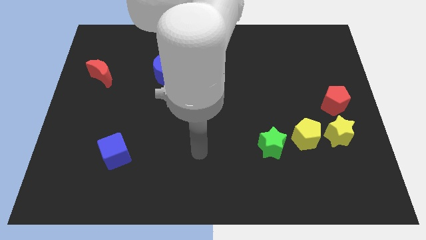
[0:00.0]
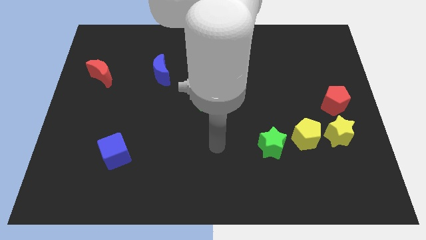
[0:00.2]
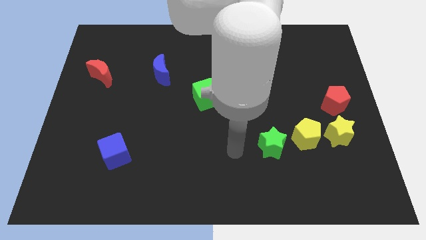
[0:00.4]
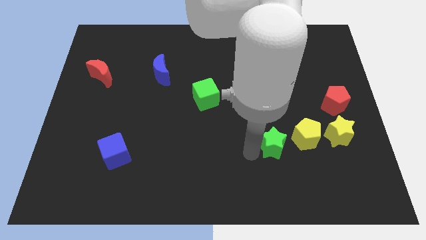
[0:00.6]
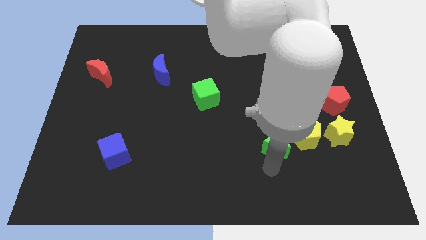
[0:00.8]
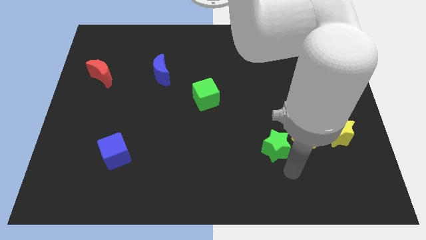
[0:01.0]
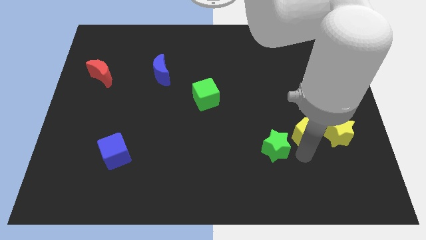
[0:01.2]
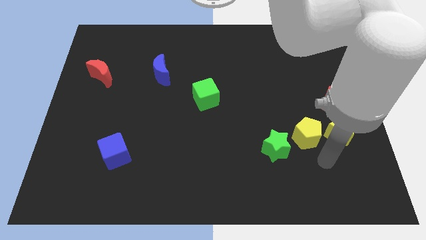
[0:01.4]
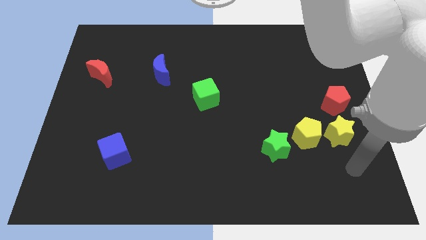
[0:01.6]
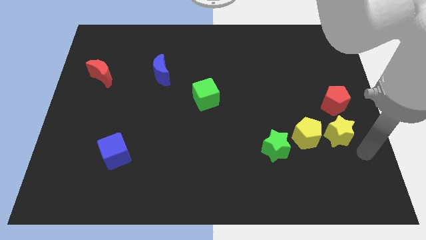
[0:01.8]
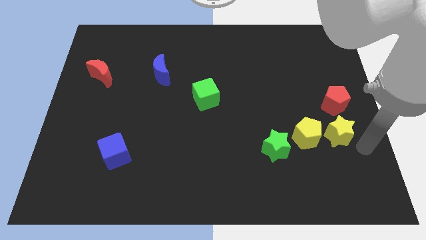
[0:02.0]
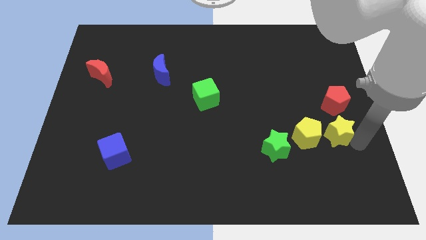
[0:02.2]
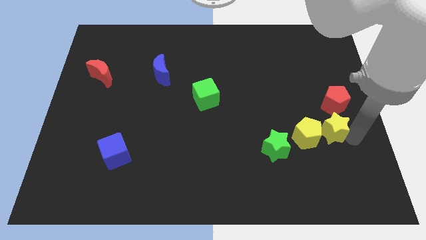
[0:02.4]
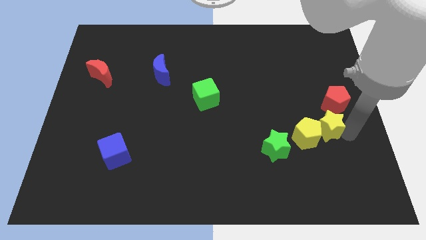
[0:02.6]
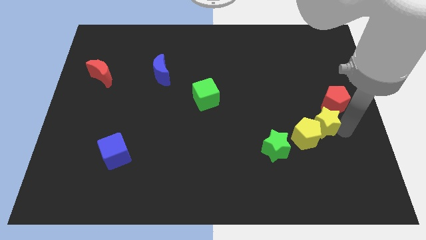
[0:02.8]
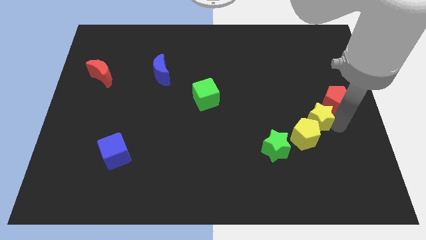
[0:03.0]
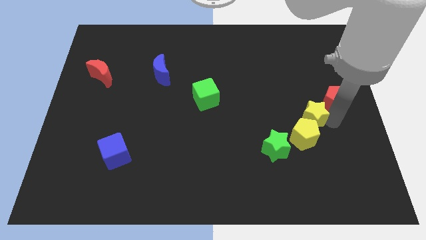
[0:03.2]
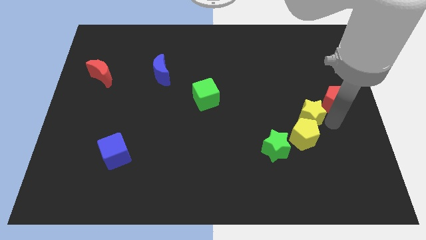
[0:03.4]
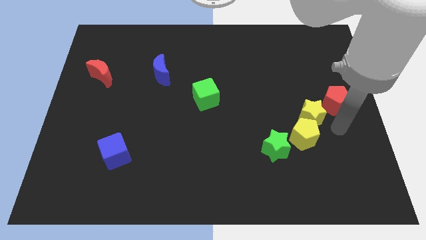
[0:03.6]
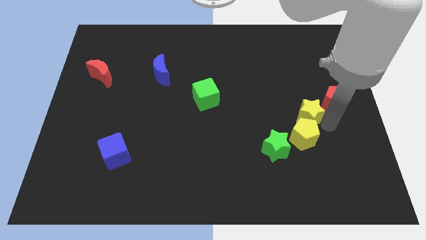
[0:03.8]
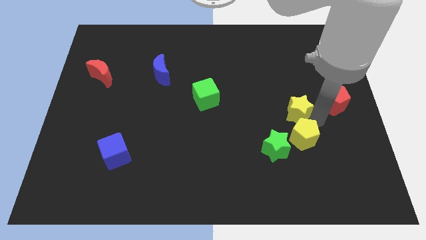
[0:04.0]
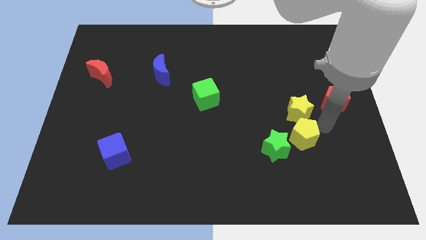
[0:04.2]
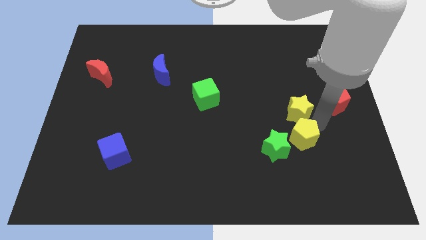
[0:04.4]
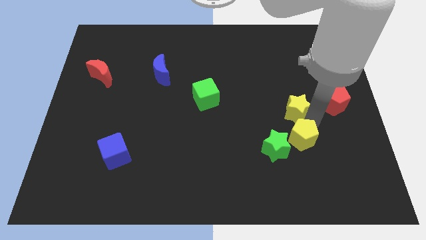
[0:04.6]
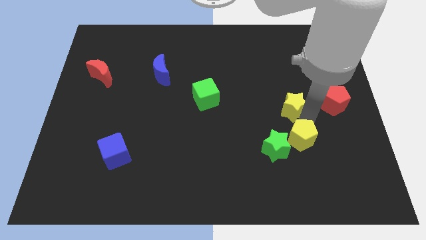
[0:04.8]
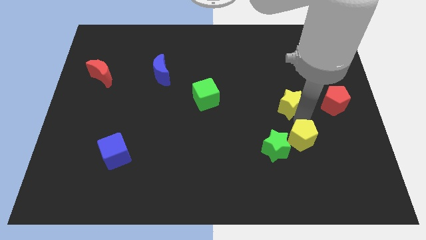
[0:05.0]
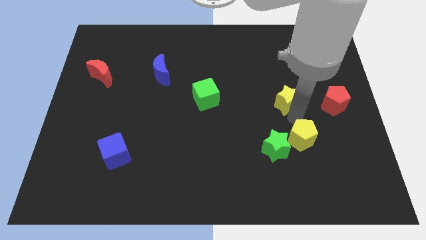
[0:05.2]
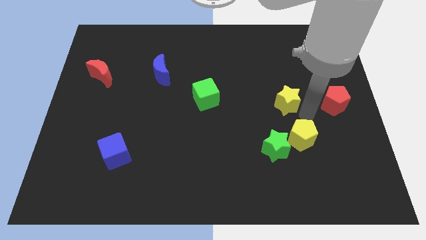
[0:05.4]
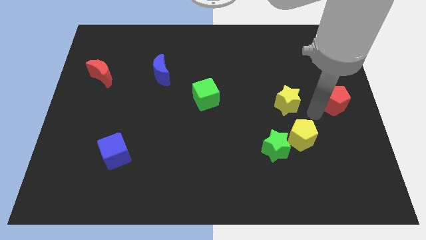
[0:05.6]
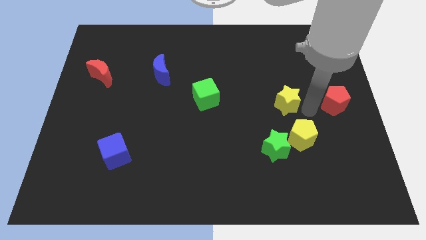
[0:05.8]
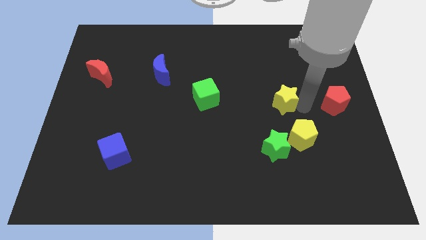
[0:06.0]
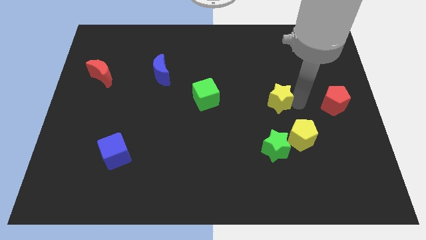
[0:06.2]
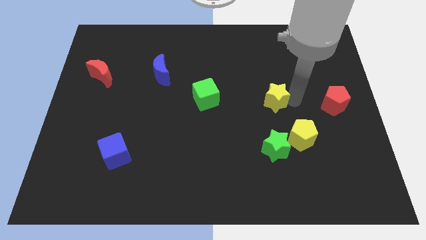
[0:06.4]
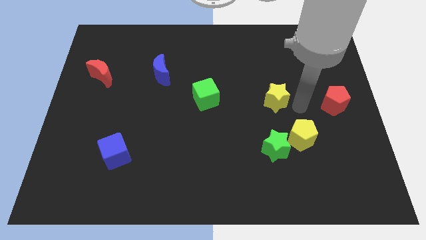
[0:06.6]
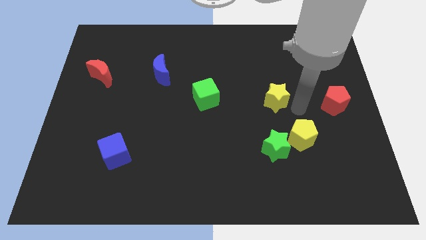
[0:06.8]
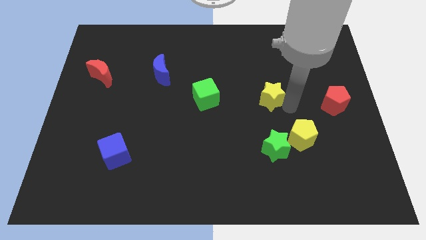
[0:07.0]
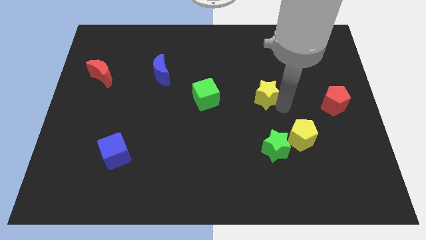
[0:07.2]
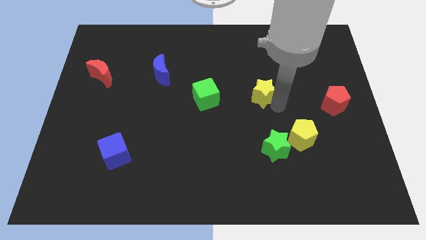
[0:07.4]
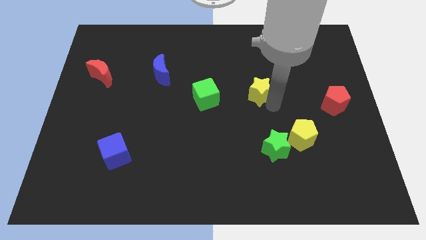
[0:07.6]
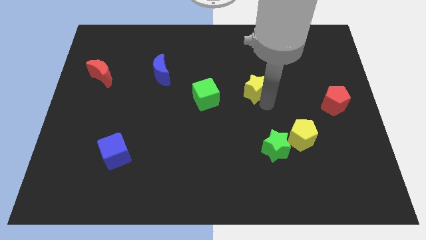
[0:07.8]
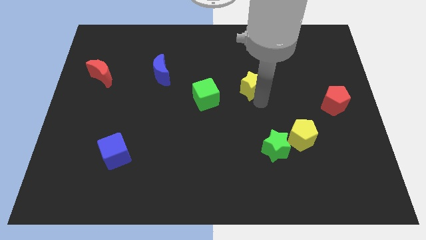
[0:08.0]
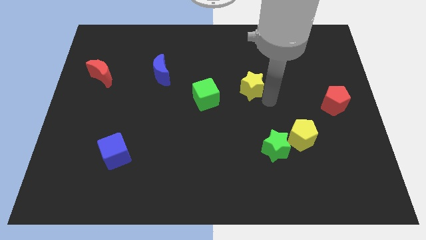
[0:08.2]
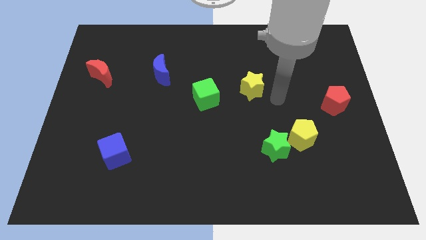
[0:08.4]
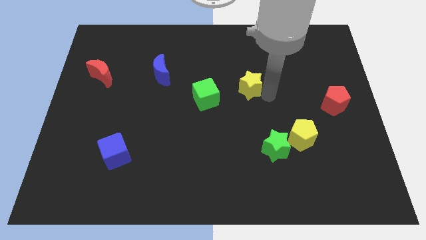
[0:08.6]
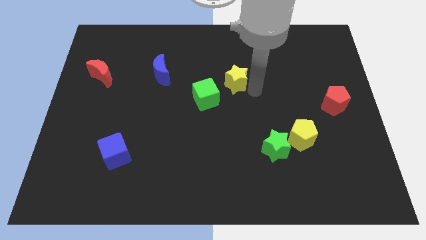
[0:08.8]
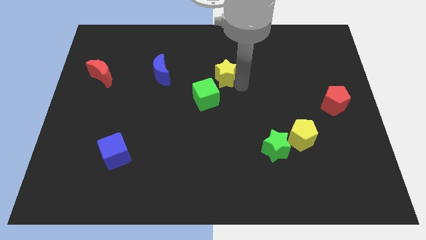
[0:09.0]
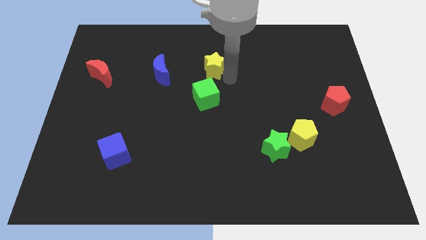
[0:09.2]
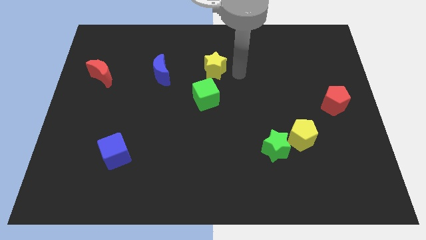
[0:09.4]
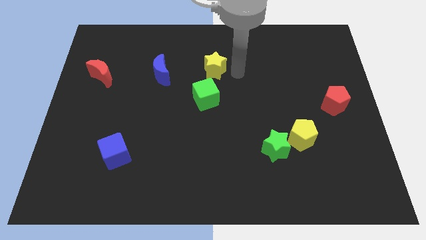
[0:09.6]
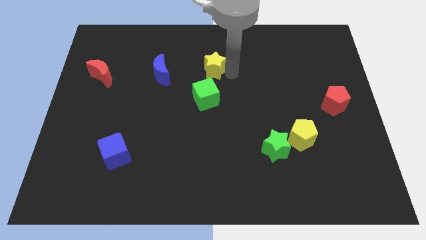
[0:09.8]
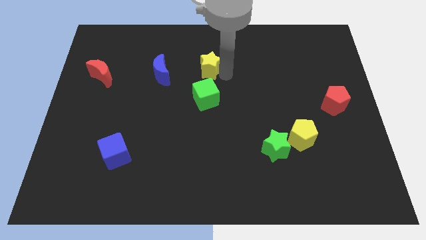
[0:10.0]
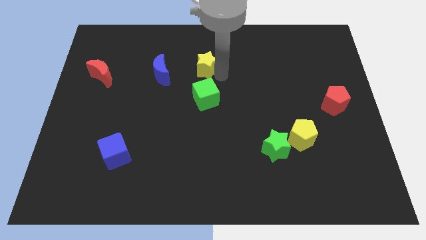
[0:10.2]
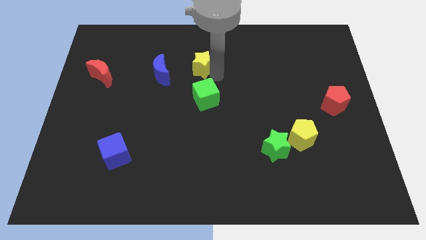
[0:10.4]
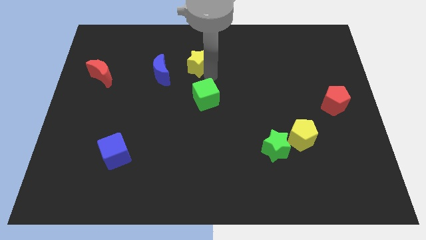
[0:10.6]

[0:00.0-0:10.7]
push the yellow star to the top right of the blue moon

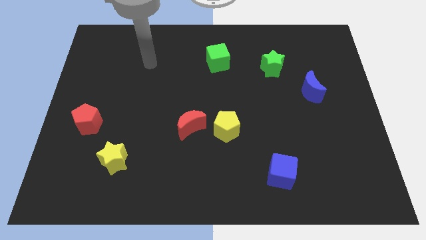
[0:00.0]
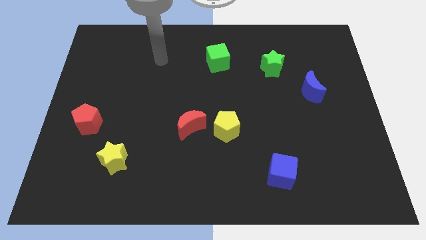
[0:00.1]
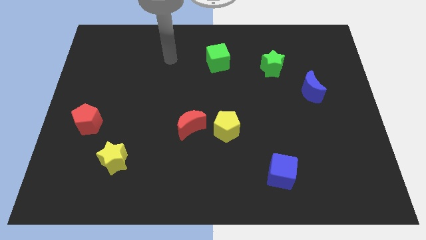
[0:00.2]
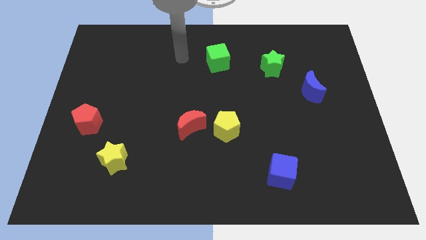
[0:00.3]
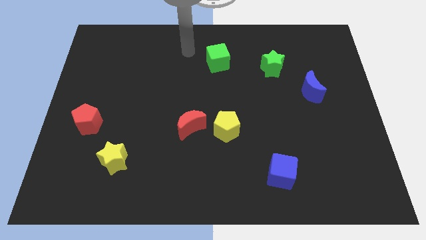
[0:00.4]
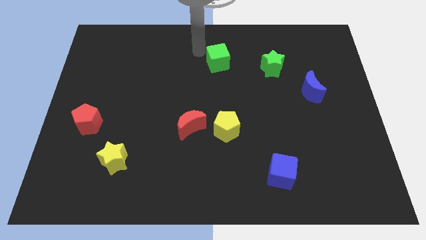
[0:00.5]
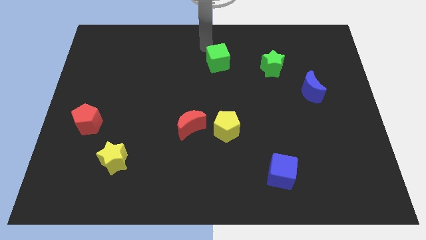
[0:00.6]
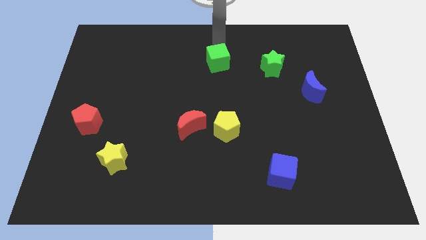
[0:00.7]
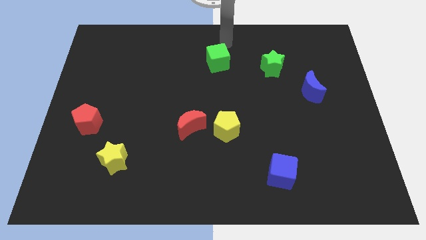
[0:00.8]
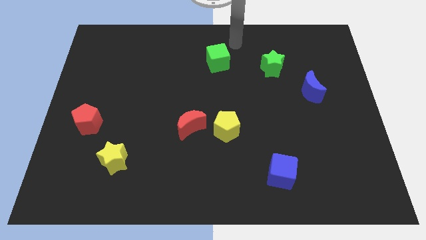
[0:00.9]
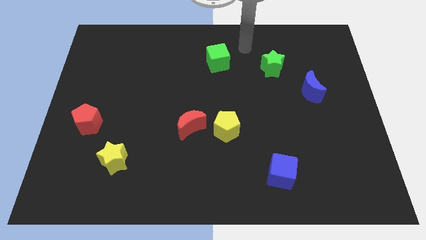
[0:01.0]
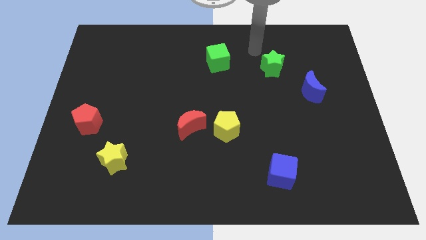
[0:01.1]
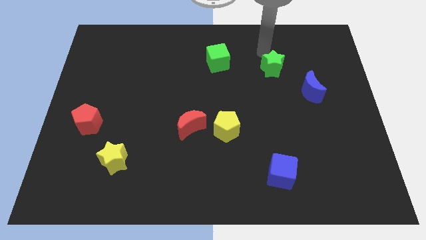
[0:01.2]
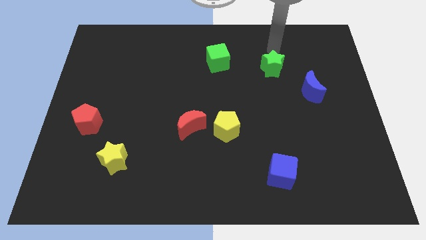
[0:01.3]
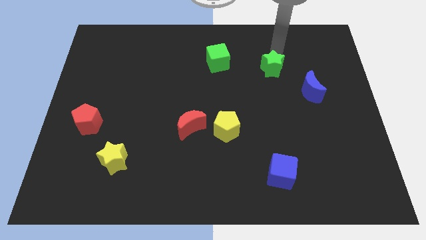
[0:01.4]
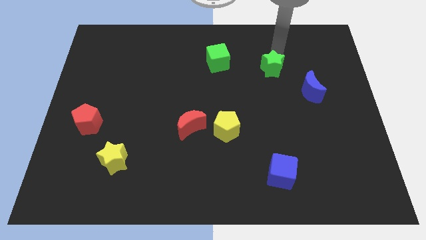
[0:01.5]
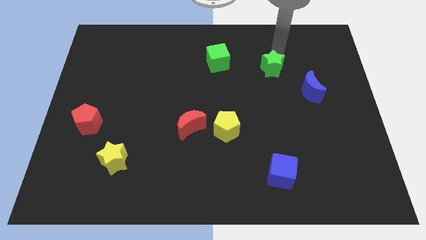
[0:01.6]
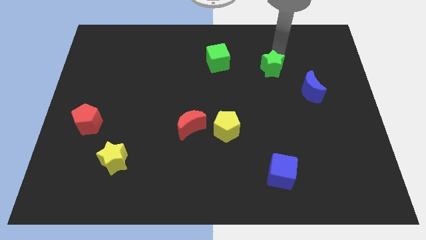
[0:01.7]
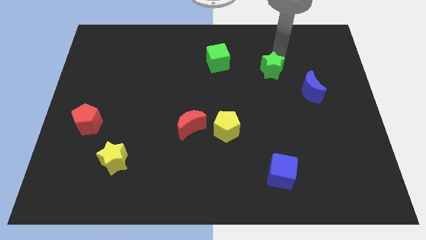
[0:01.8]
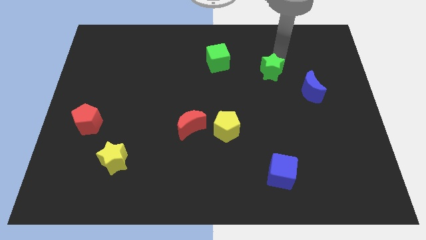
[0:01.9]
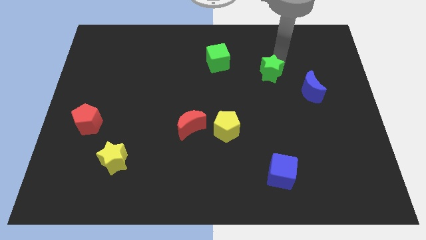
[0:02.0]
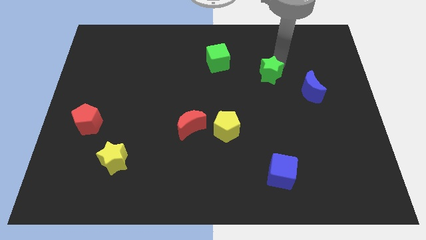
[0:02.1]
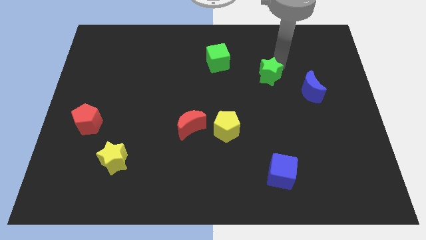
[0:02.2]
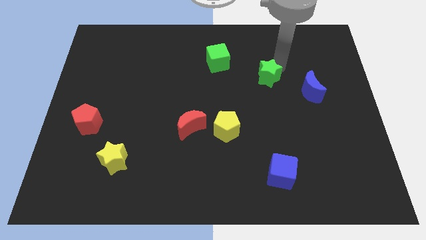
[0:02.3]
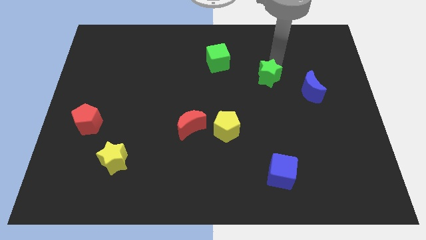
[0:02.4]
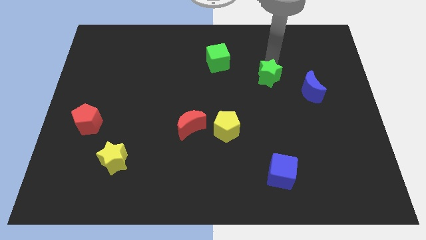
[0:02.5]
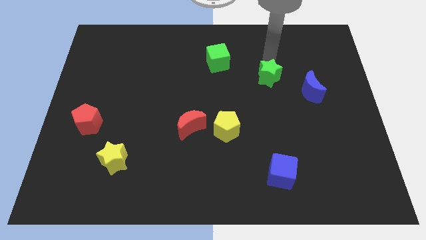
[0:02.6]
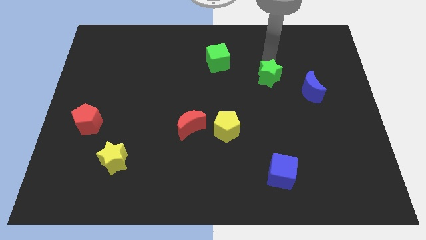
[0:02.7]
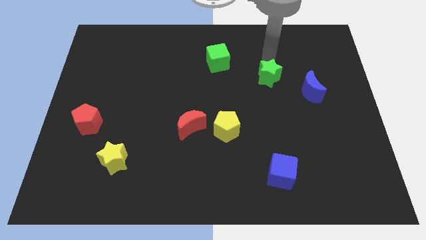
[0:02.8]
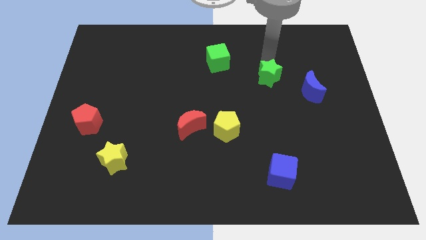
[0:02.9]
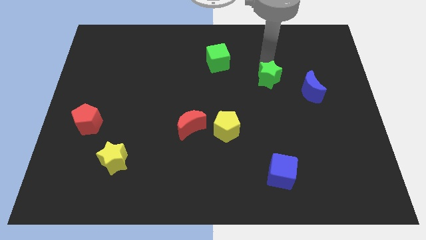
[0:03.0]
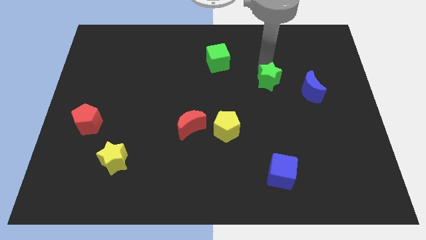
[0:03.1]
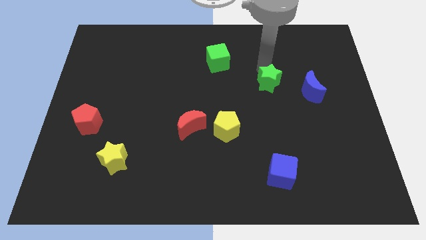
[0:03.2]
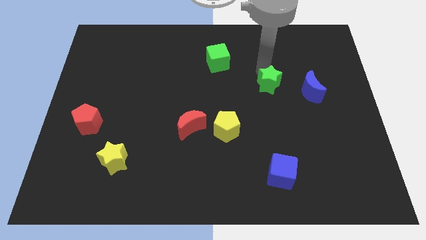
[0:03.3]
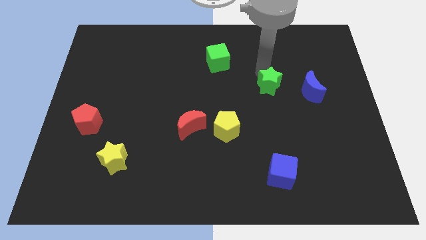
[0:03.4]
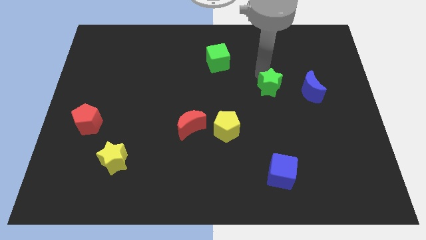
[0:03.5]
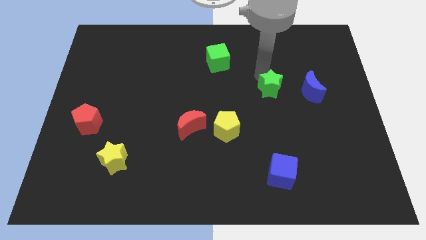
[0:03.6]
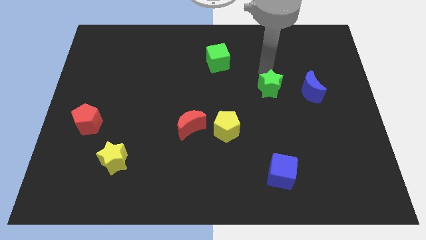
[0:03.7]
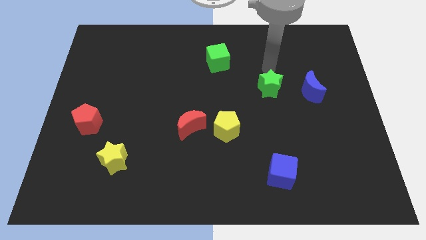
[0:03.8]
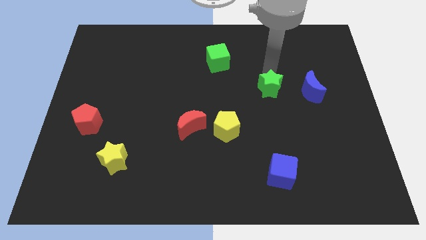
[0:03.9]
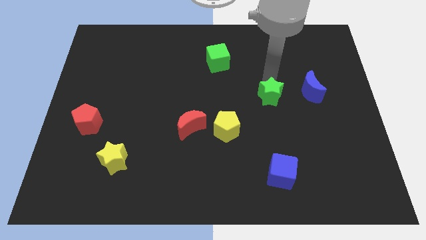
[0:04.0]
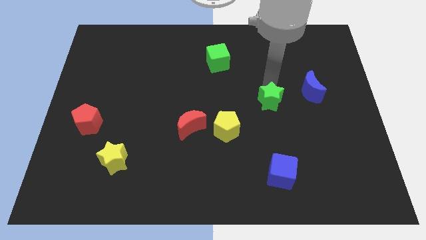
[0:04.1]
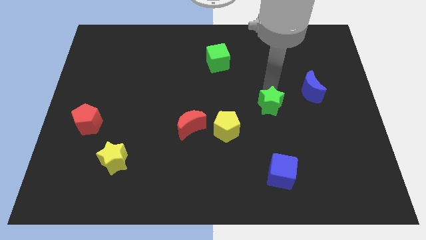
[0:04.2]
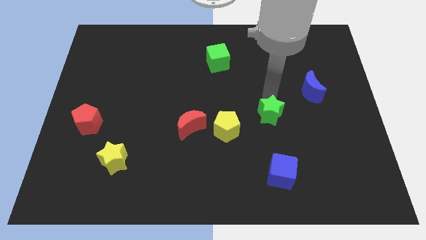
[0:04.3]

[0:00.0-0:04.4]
push the green star to the top side of the blue cube
